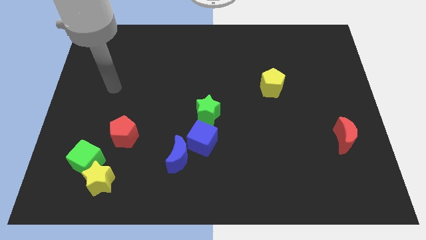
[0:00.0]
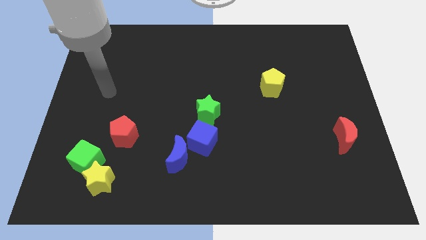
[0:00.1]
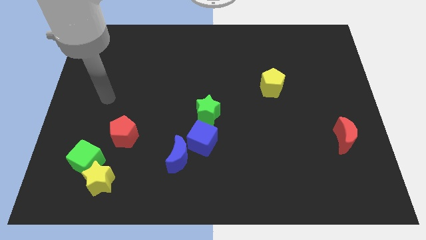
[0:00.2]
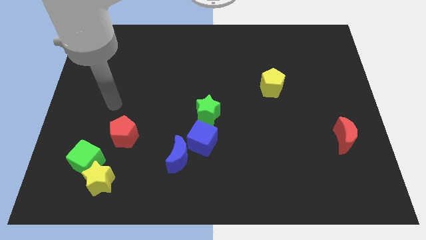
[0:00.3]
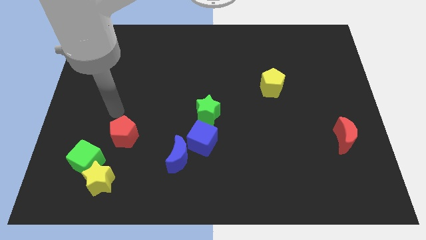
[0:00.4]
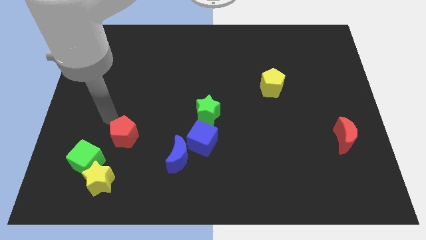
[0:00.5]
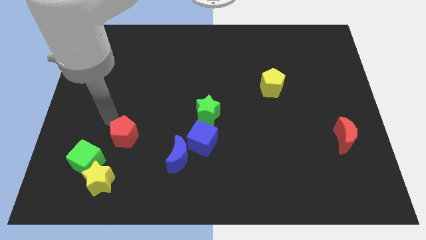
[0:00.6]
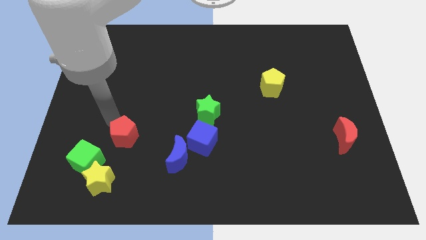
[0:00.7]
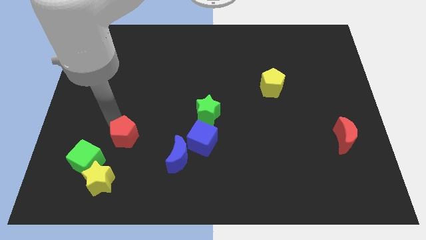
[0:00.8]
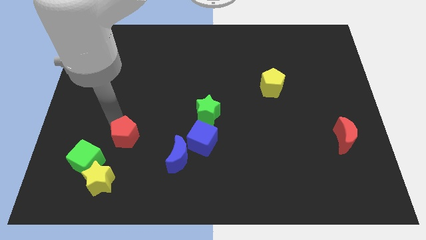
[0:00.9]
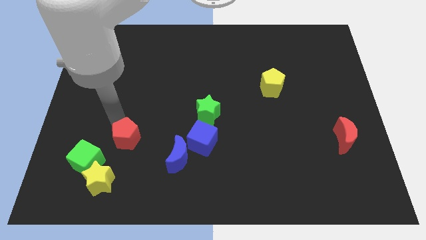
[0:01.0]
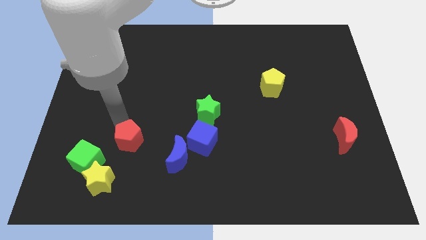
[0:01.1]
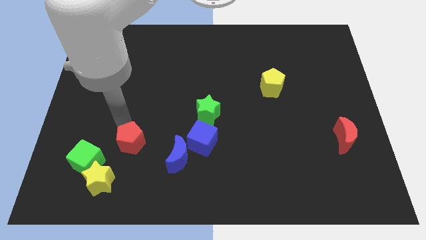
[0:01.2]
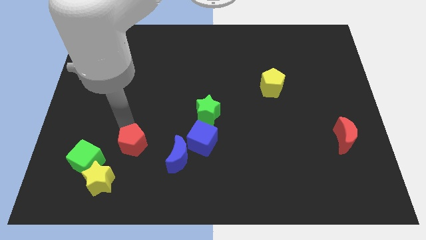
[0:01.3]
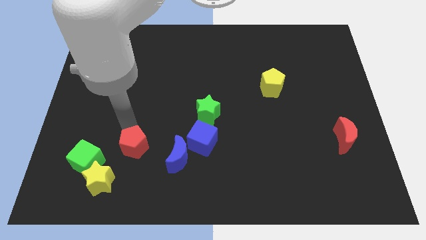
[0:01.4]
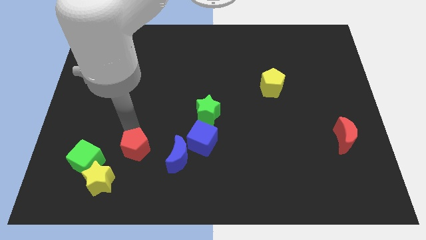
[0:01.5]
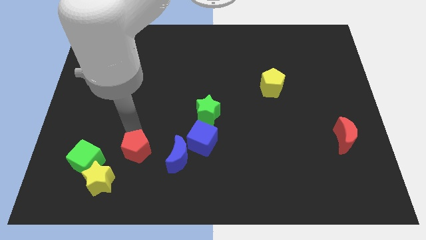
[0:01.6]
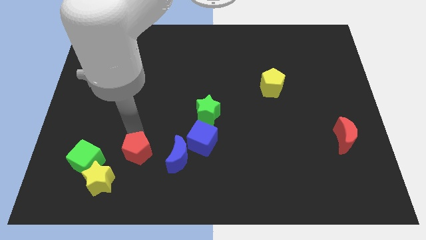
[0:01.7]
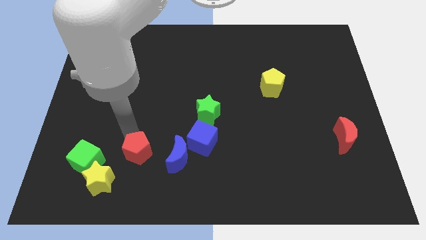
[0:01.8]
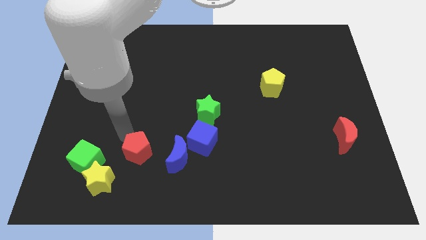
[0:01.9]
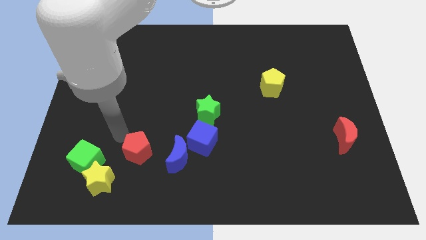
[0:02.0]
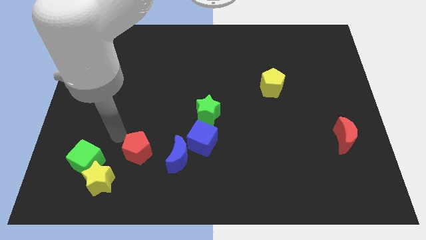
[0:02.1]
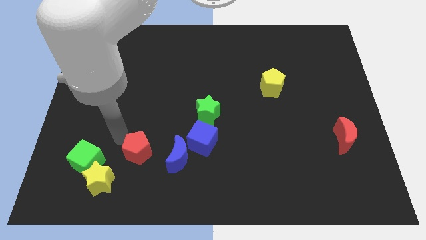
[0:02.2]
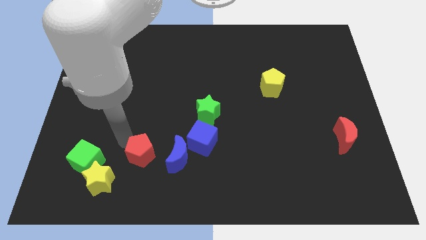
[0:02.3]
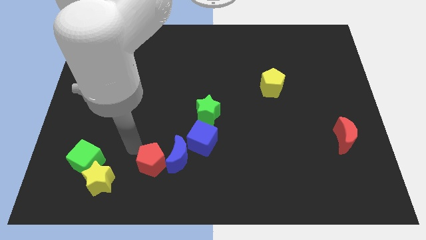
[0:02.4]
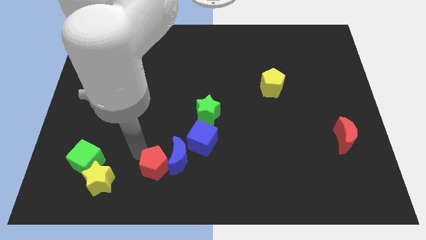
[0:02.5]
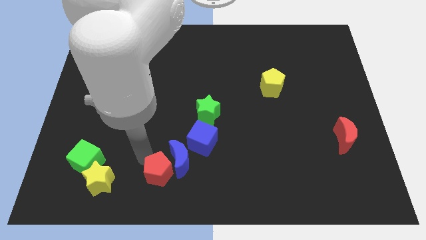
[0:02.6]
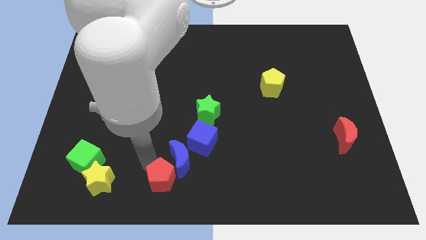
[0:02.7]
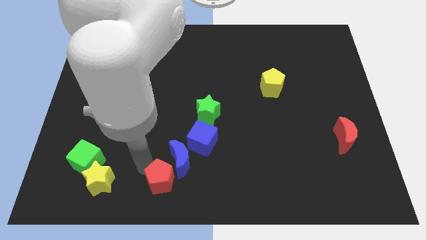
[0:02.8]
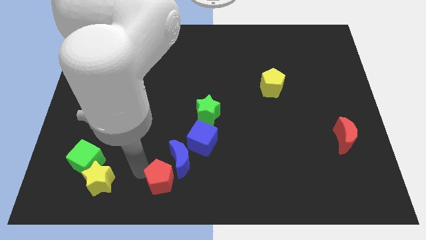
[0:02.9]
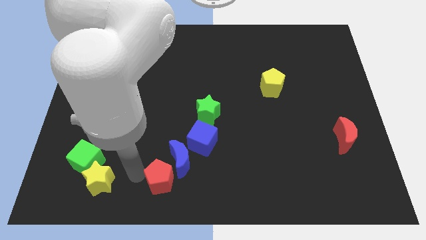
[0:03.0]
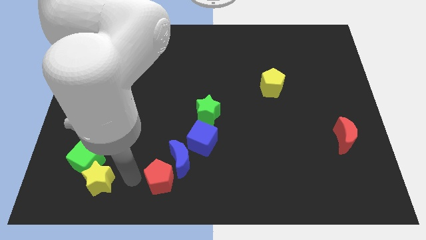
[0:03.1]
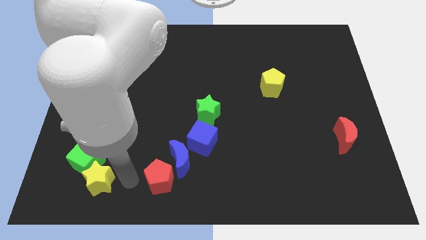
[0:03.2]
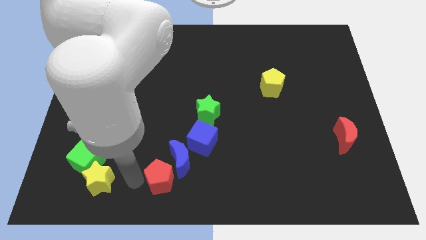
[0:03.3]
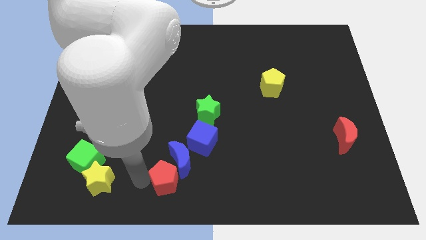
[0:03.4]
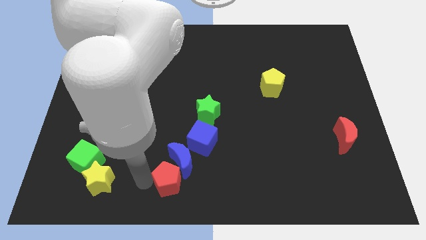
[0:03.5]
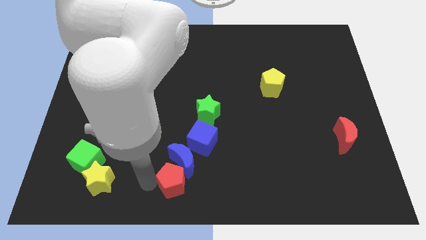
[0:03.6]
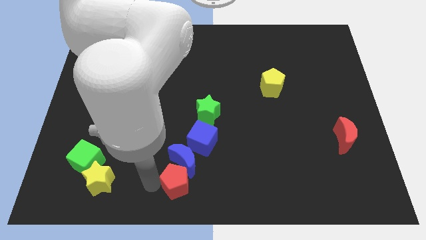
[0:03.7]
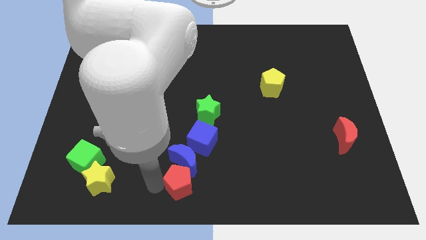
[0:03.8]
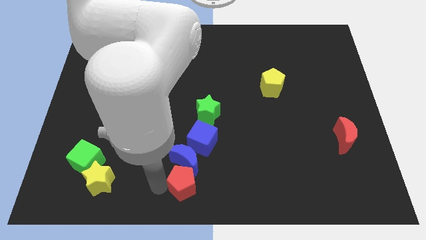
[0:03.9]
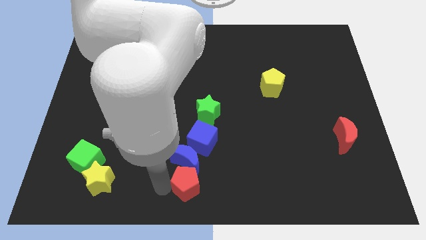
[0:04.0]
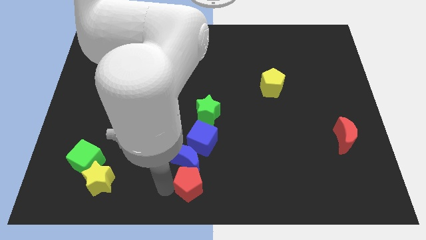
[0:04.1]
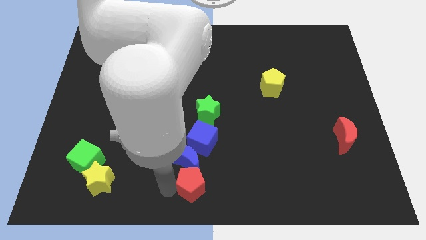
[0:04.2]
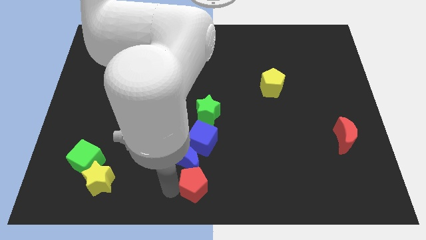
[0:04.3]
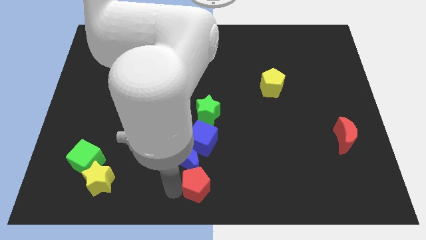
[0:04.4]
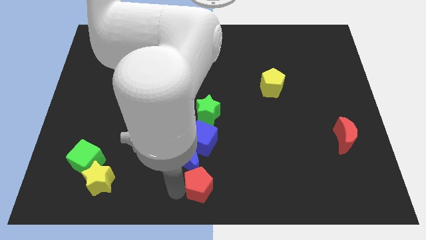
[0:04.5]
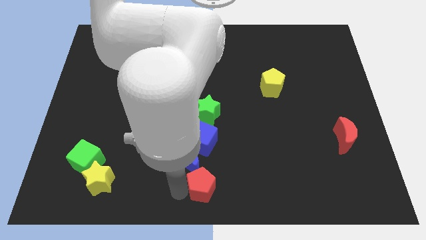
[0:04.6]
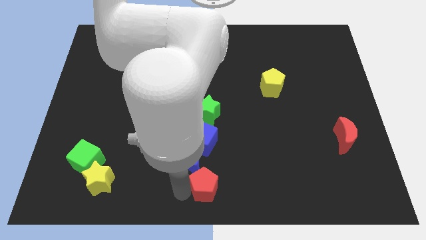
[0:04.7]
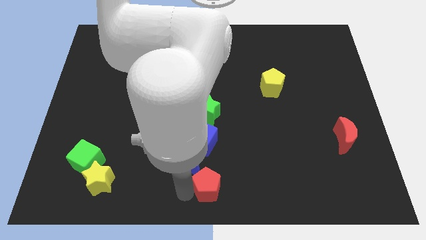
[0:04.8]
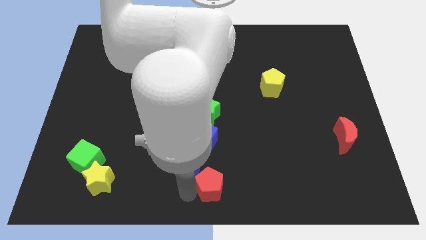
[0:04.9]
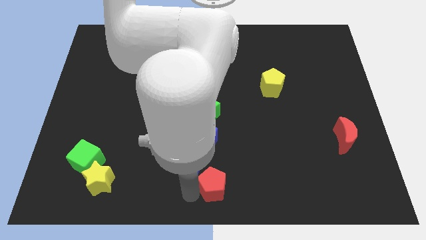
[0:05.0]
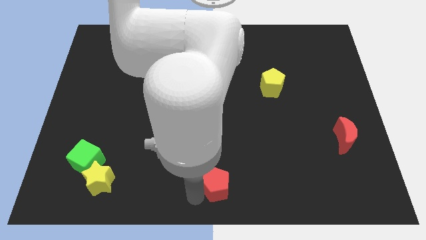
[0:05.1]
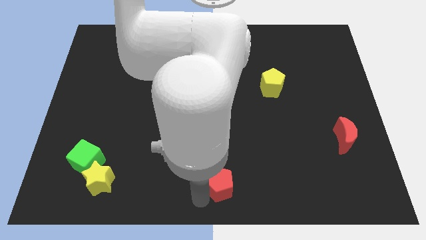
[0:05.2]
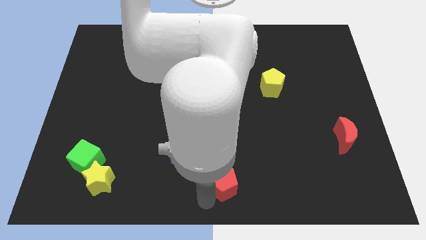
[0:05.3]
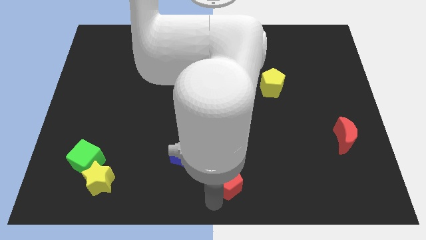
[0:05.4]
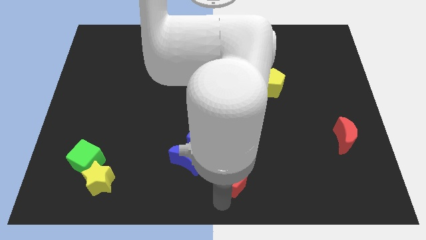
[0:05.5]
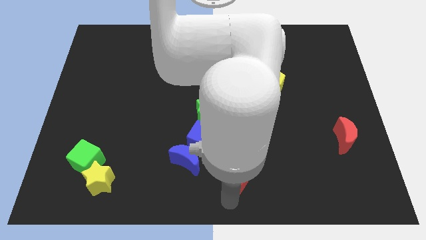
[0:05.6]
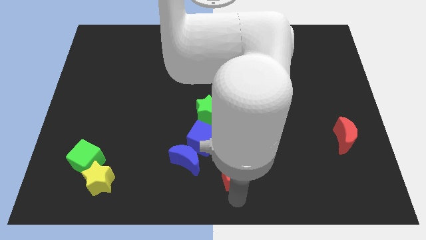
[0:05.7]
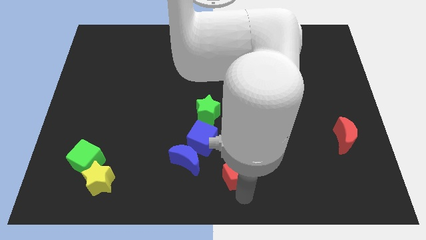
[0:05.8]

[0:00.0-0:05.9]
slide the red pentagon right

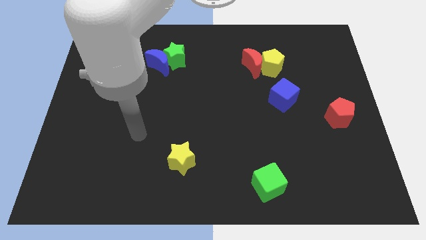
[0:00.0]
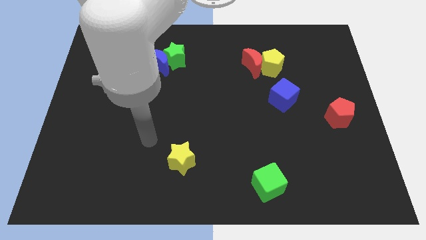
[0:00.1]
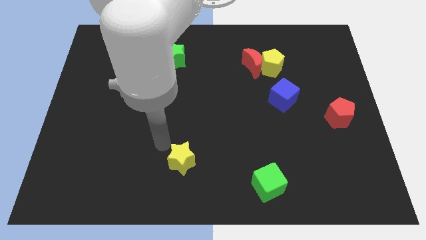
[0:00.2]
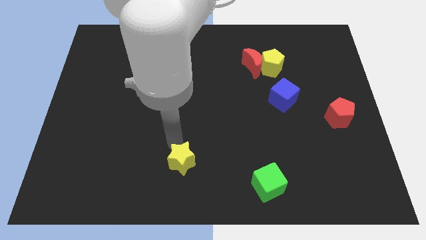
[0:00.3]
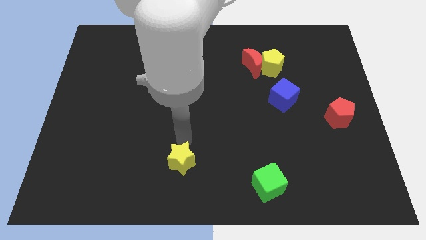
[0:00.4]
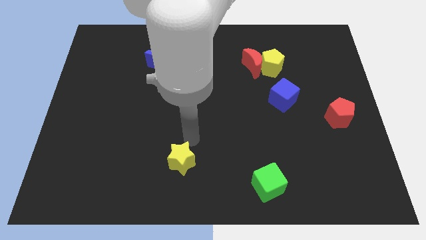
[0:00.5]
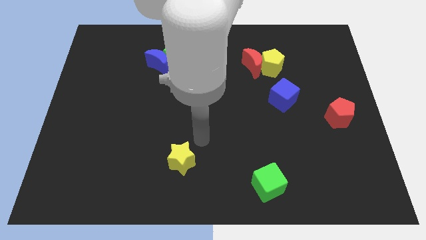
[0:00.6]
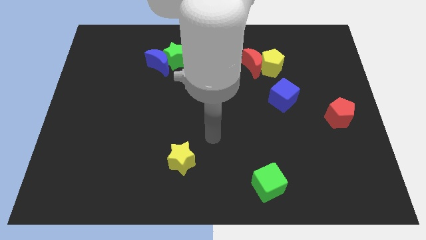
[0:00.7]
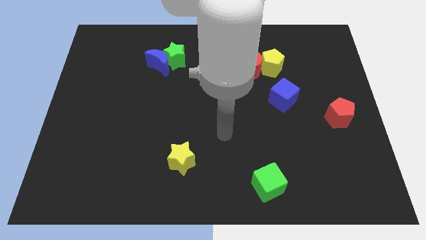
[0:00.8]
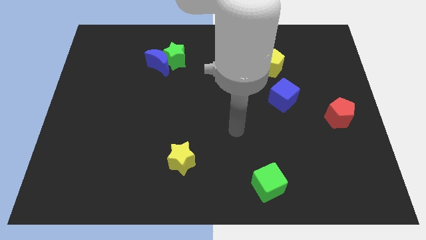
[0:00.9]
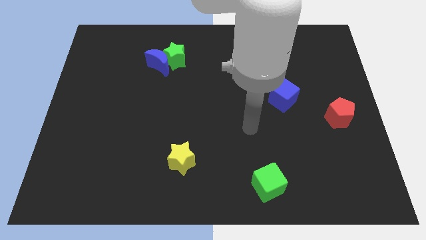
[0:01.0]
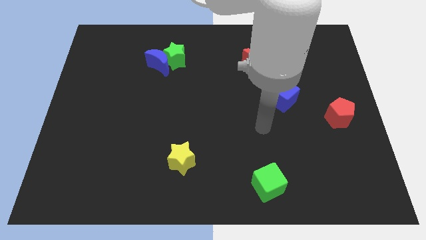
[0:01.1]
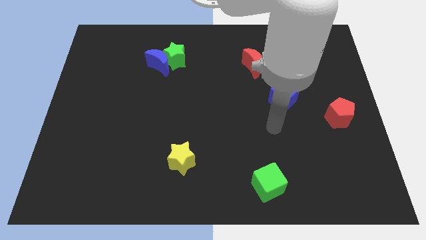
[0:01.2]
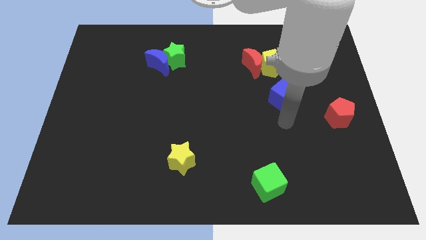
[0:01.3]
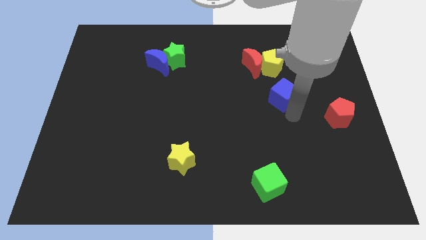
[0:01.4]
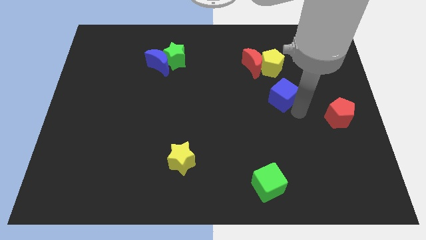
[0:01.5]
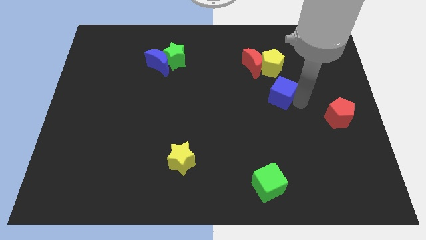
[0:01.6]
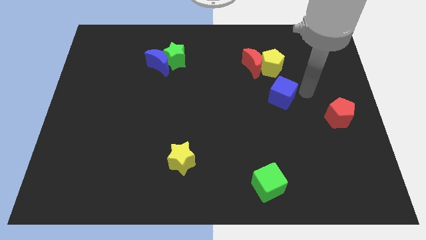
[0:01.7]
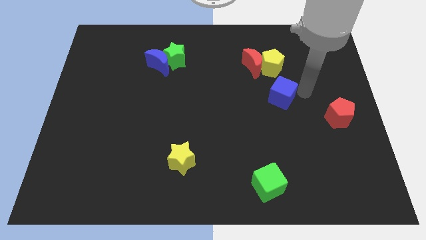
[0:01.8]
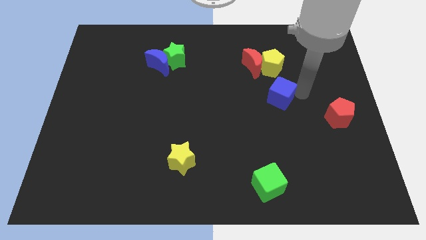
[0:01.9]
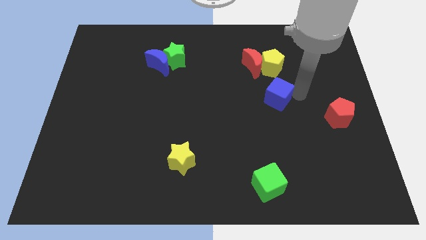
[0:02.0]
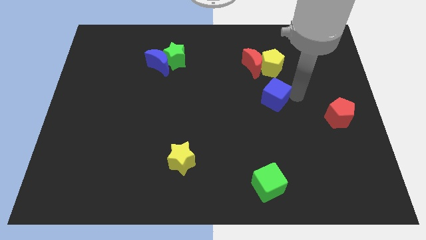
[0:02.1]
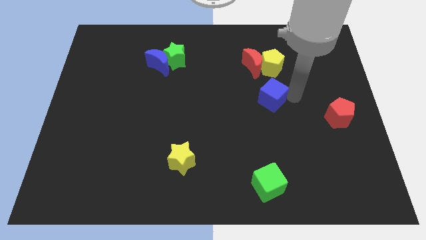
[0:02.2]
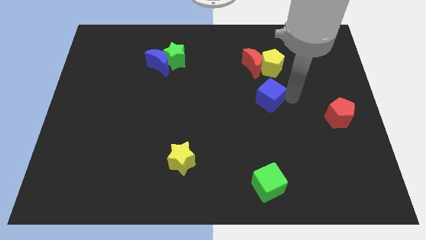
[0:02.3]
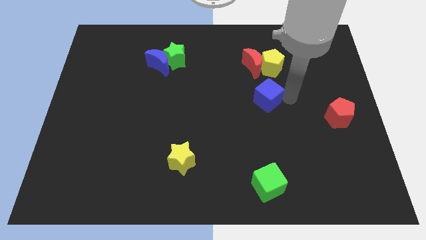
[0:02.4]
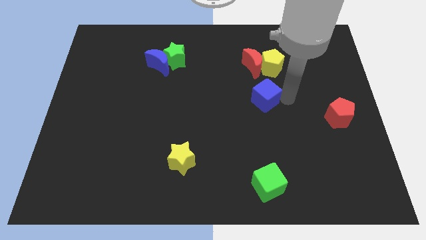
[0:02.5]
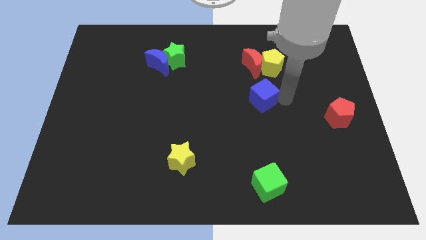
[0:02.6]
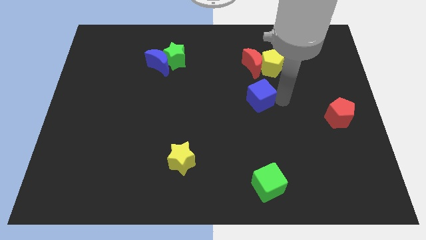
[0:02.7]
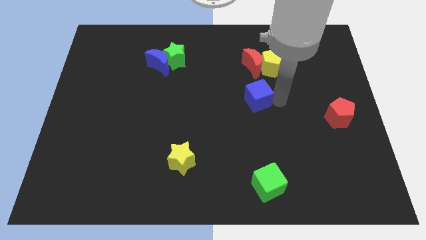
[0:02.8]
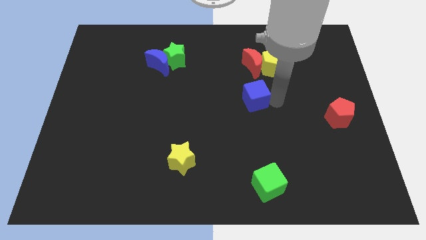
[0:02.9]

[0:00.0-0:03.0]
slide the blue cube left a little
